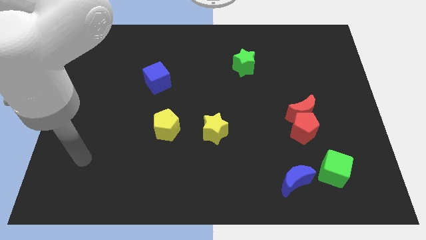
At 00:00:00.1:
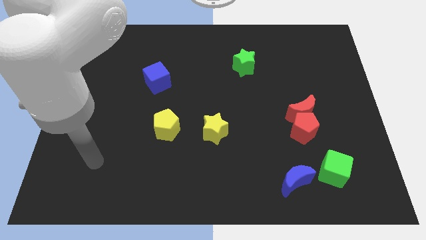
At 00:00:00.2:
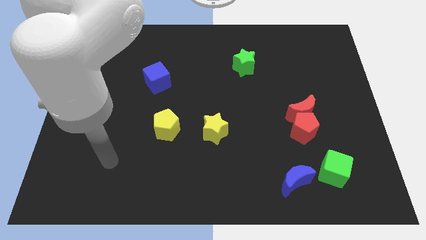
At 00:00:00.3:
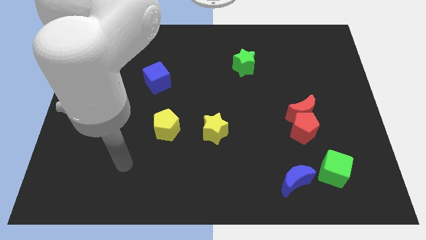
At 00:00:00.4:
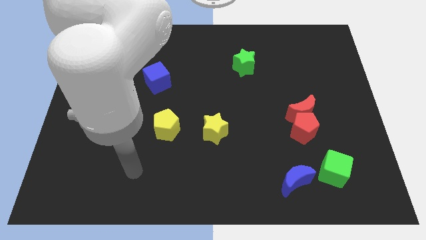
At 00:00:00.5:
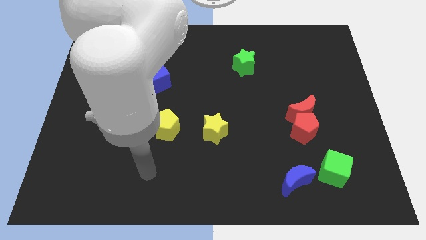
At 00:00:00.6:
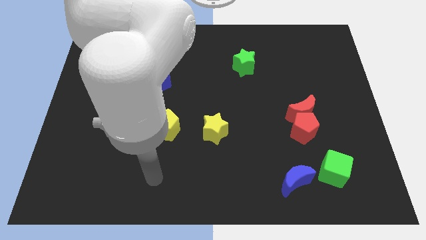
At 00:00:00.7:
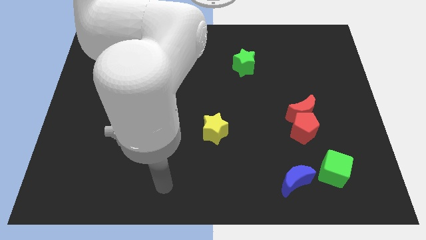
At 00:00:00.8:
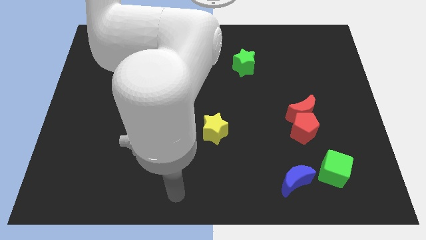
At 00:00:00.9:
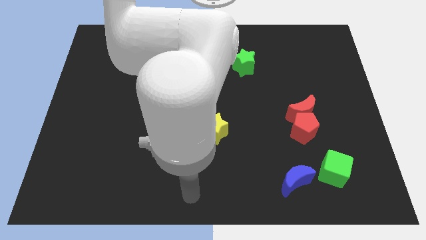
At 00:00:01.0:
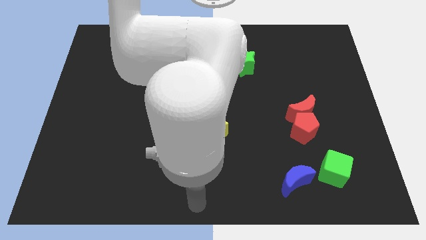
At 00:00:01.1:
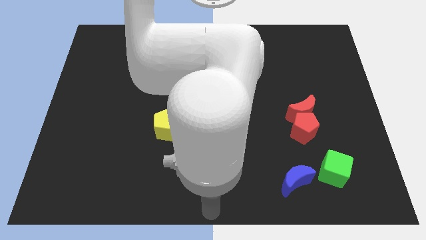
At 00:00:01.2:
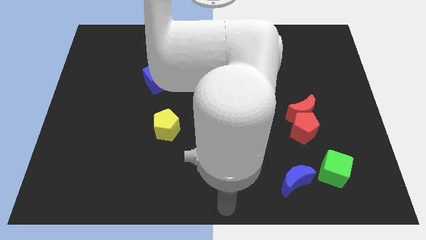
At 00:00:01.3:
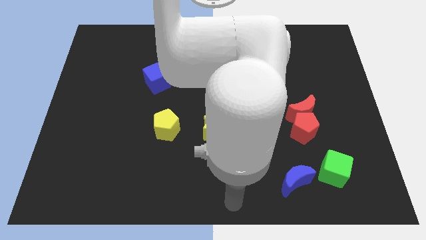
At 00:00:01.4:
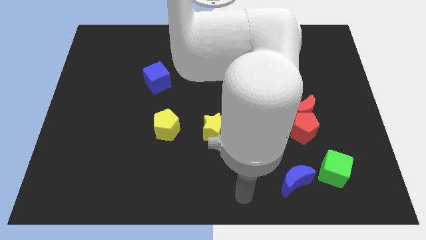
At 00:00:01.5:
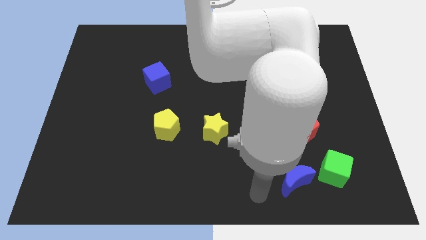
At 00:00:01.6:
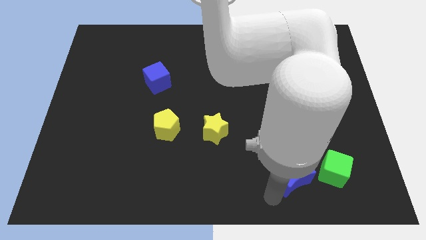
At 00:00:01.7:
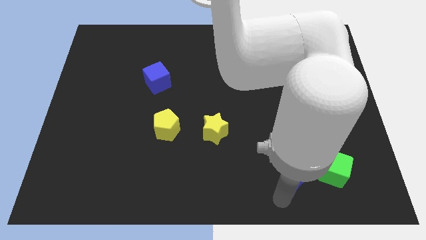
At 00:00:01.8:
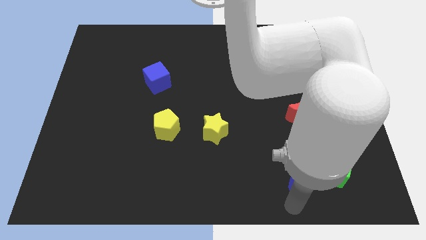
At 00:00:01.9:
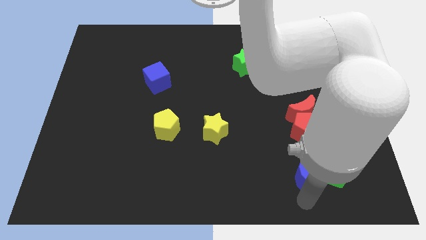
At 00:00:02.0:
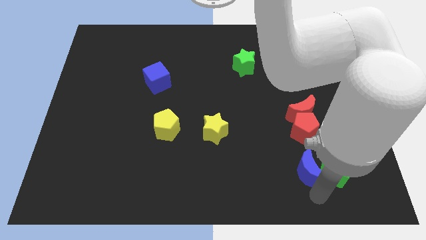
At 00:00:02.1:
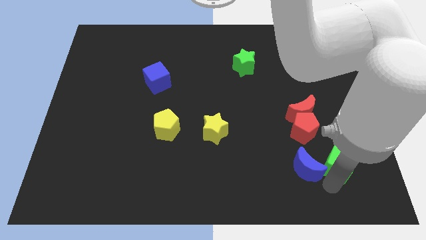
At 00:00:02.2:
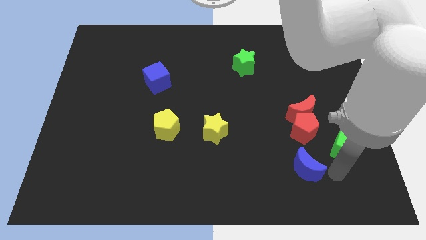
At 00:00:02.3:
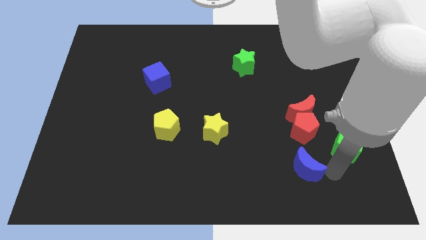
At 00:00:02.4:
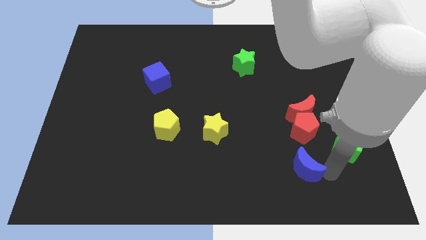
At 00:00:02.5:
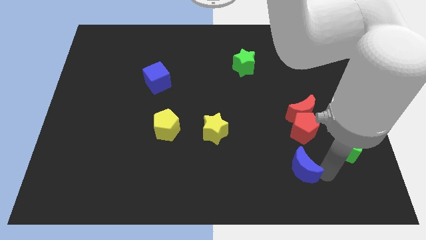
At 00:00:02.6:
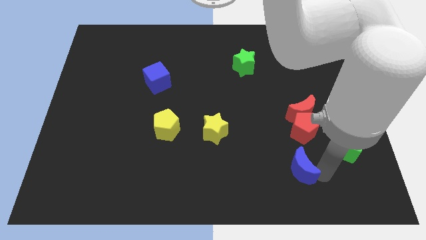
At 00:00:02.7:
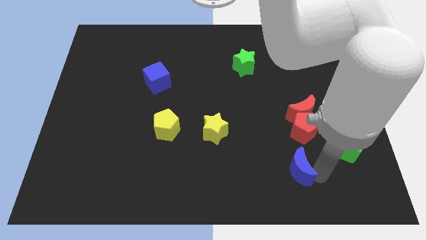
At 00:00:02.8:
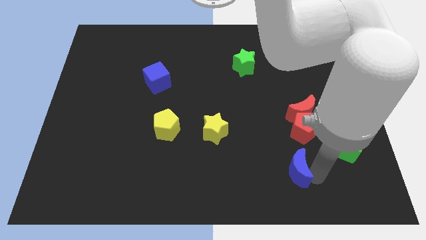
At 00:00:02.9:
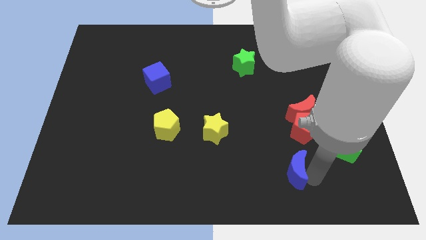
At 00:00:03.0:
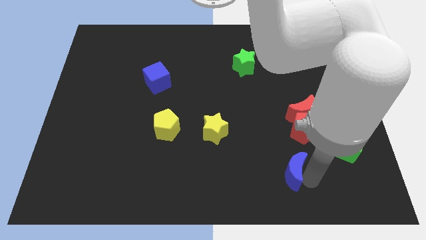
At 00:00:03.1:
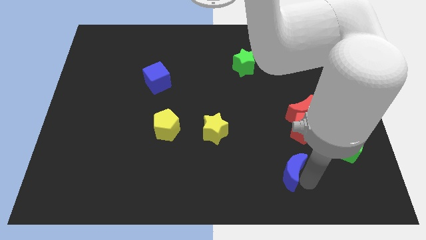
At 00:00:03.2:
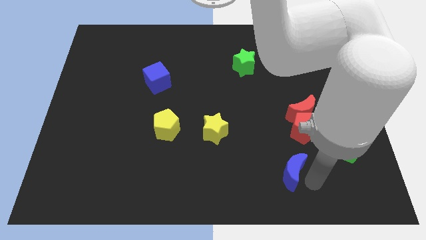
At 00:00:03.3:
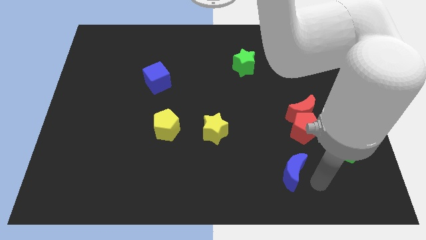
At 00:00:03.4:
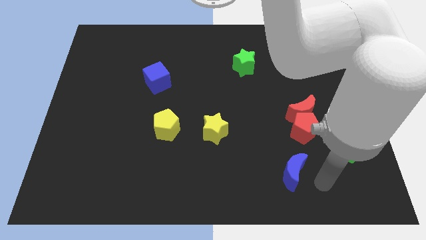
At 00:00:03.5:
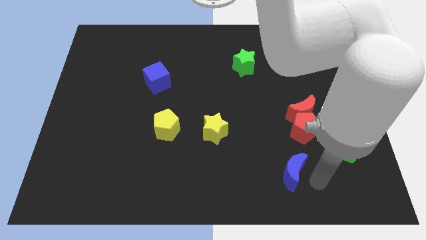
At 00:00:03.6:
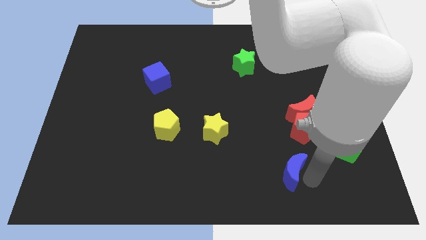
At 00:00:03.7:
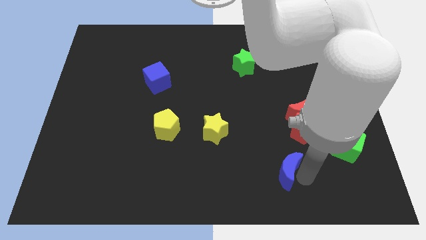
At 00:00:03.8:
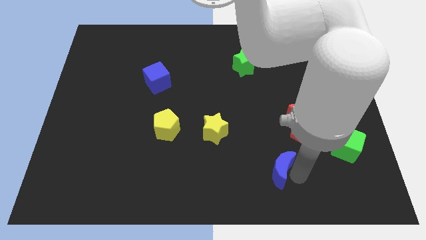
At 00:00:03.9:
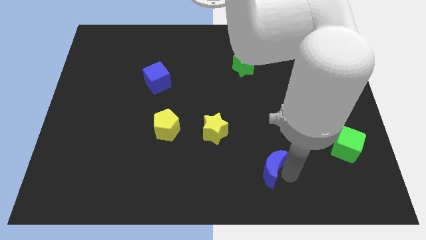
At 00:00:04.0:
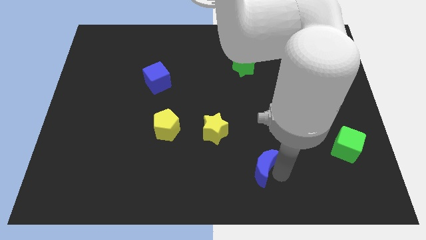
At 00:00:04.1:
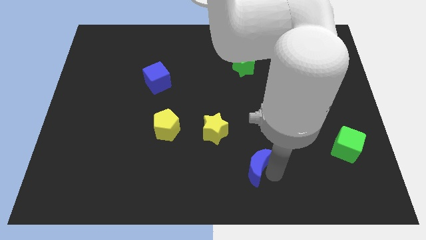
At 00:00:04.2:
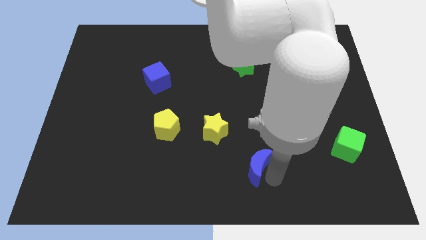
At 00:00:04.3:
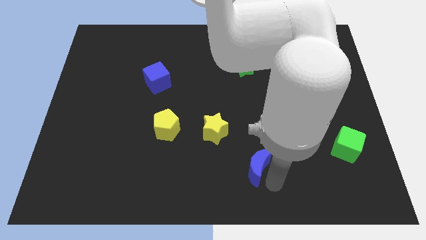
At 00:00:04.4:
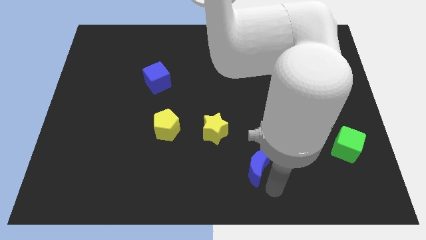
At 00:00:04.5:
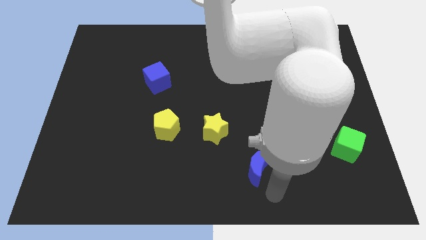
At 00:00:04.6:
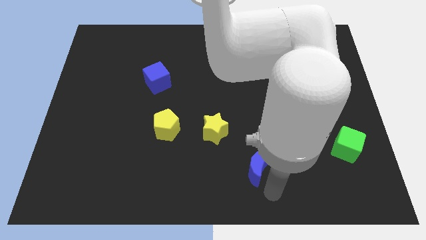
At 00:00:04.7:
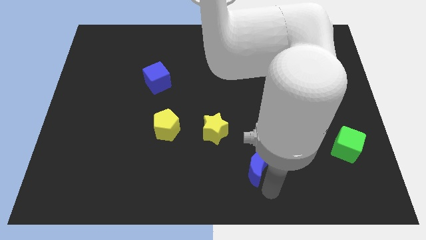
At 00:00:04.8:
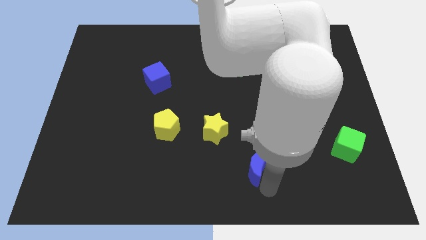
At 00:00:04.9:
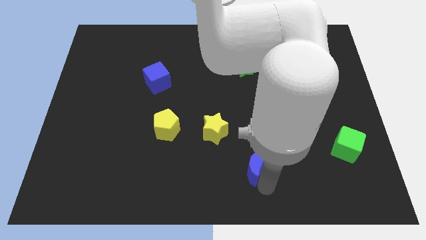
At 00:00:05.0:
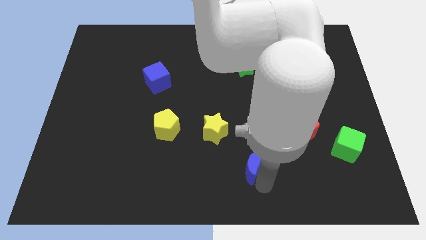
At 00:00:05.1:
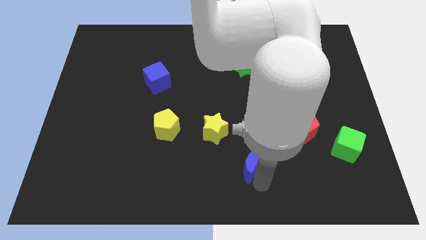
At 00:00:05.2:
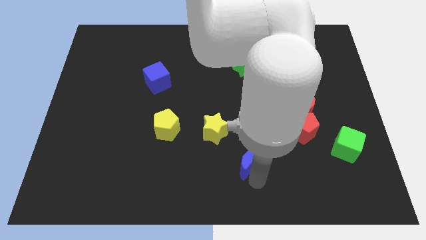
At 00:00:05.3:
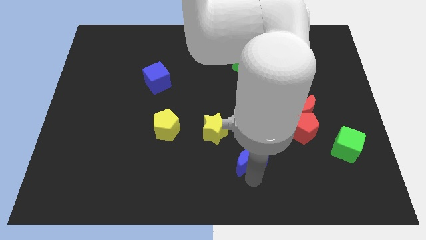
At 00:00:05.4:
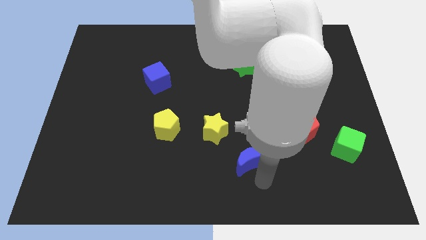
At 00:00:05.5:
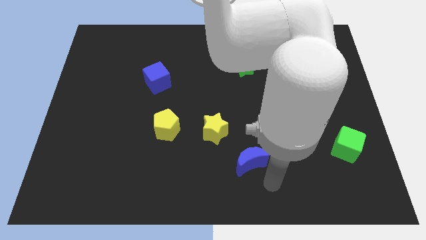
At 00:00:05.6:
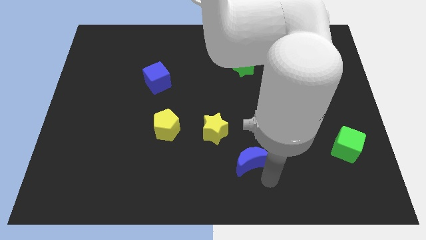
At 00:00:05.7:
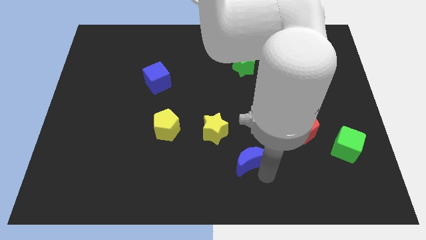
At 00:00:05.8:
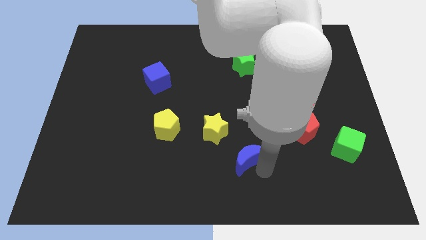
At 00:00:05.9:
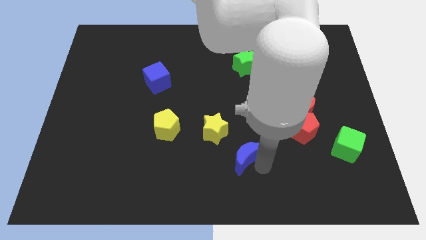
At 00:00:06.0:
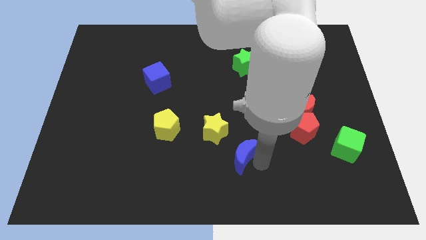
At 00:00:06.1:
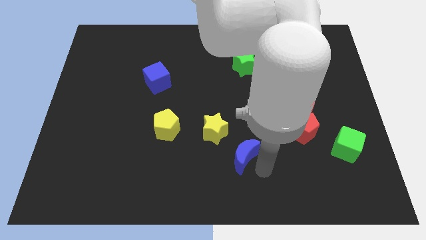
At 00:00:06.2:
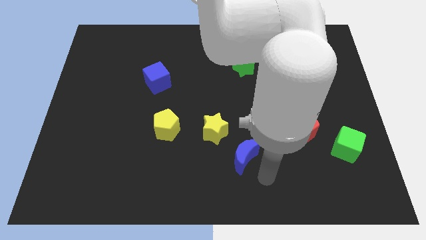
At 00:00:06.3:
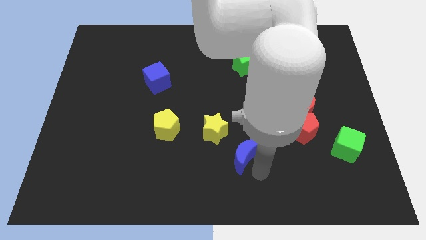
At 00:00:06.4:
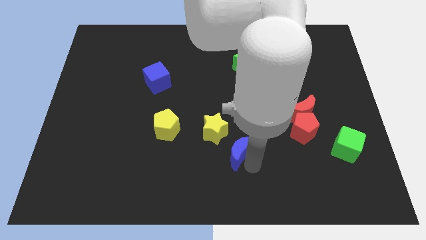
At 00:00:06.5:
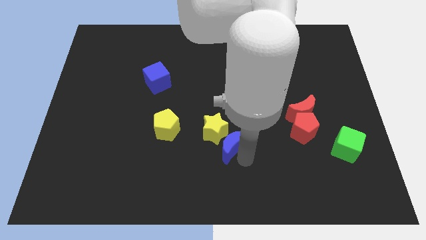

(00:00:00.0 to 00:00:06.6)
put the blue moon towards the yellow star

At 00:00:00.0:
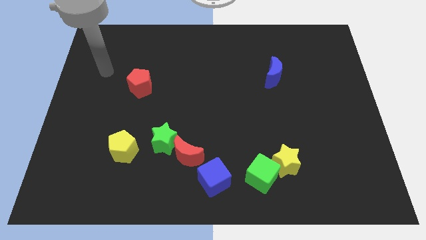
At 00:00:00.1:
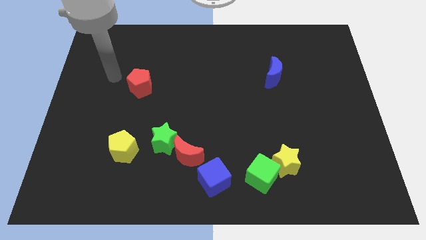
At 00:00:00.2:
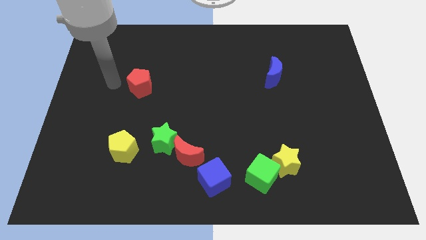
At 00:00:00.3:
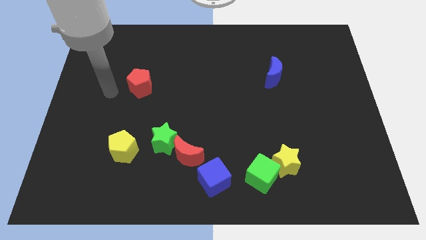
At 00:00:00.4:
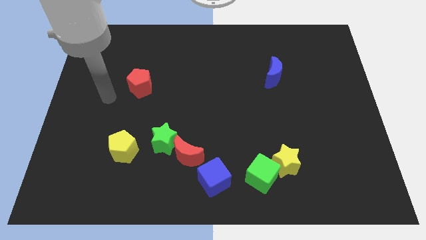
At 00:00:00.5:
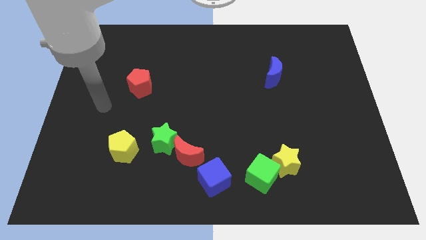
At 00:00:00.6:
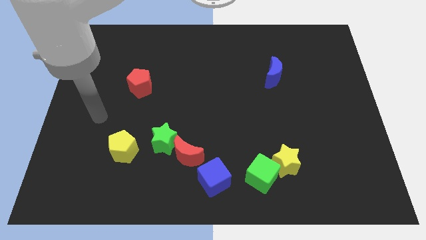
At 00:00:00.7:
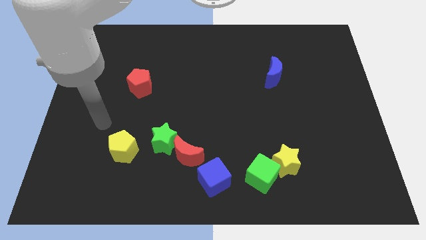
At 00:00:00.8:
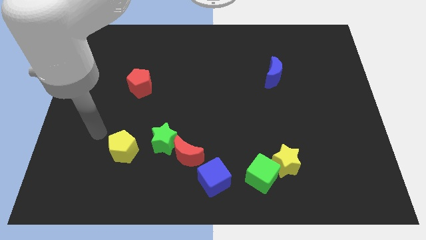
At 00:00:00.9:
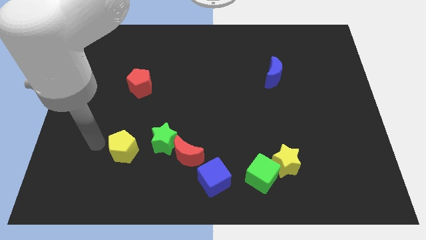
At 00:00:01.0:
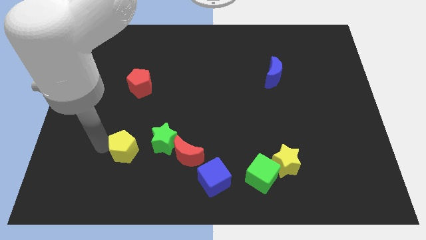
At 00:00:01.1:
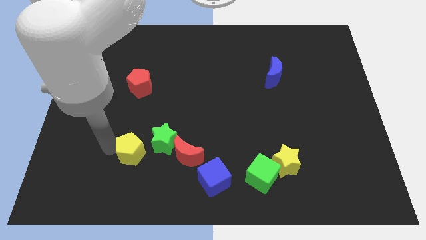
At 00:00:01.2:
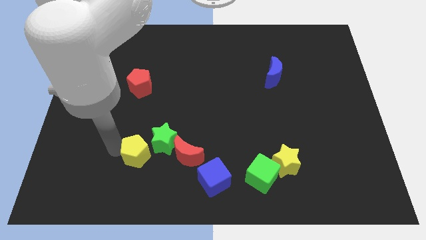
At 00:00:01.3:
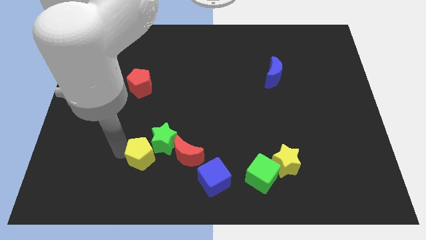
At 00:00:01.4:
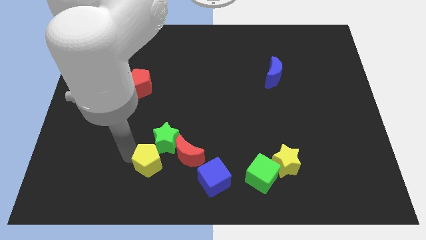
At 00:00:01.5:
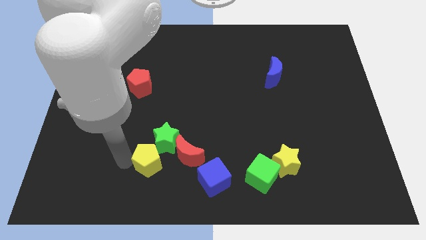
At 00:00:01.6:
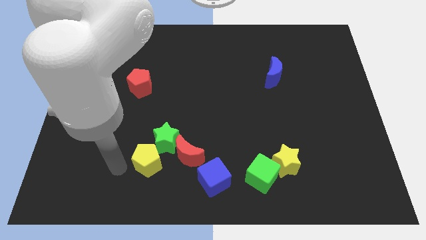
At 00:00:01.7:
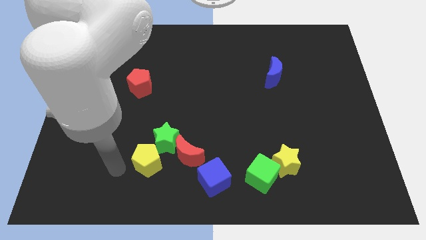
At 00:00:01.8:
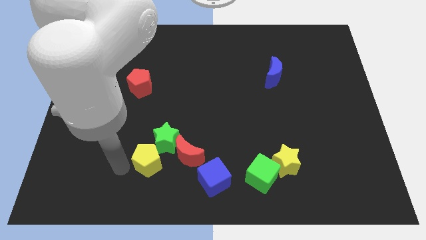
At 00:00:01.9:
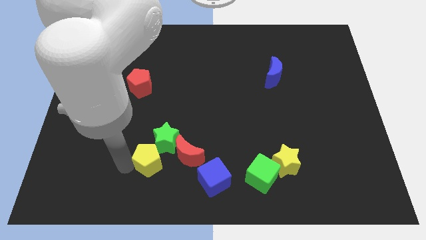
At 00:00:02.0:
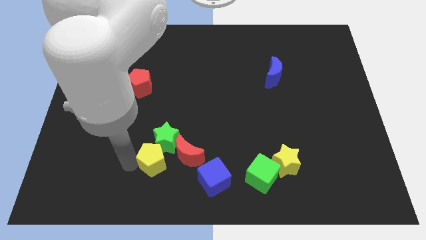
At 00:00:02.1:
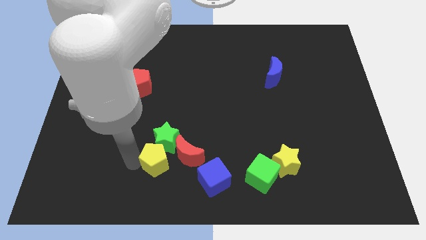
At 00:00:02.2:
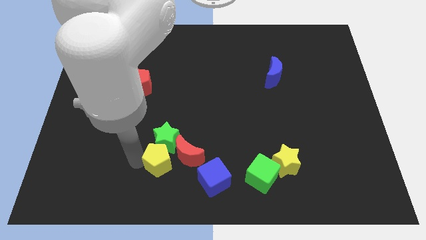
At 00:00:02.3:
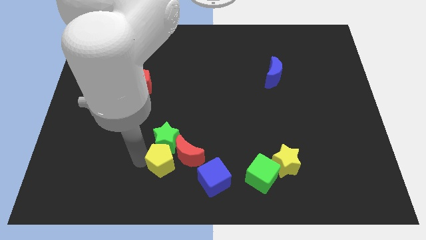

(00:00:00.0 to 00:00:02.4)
put the yellow pentagon towards the red moon
